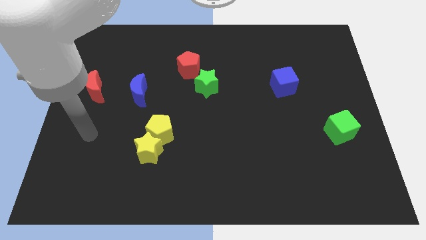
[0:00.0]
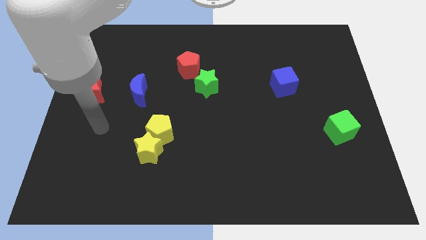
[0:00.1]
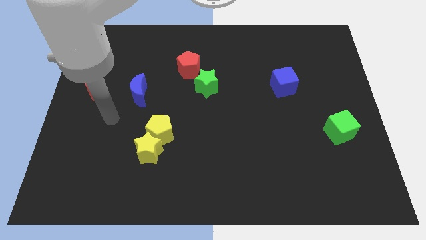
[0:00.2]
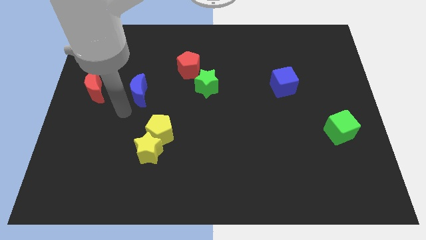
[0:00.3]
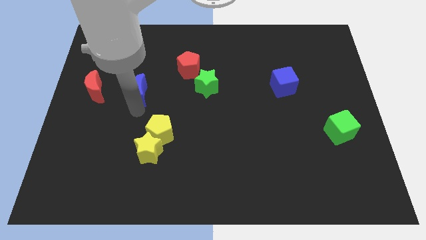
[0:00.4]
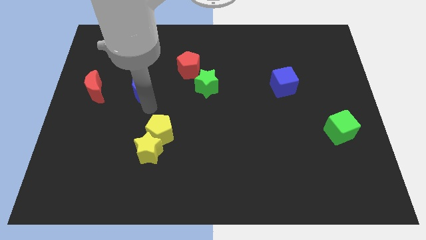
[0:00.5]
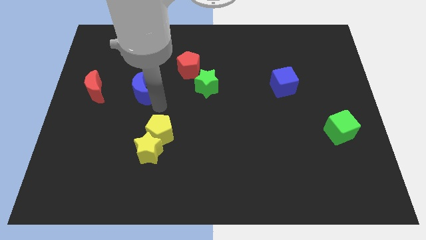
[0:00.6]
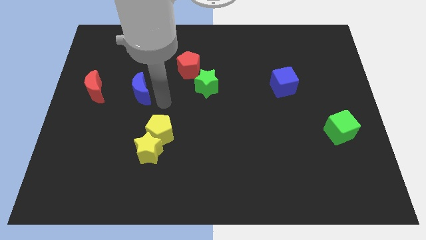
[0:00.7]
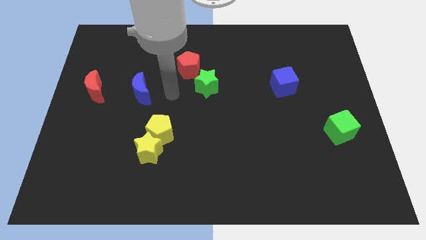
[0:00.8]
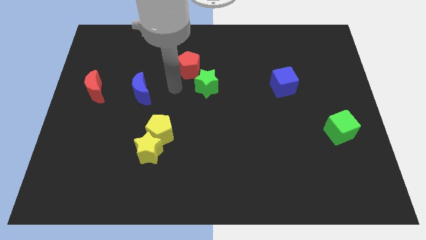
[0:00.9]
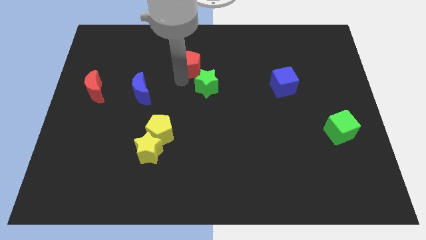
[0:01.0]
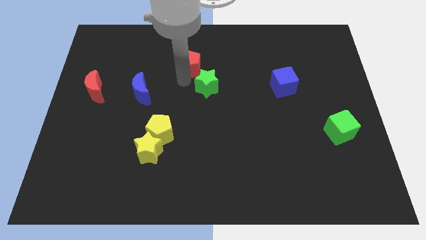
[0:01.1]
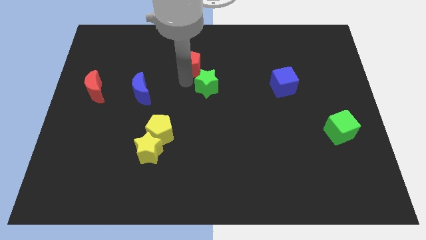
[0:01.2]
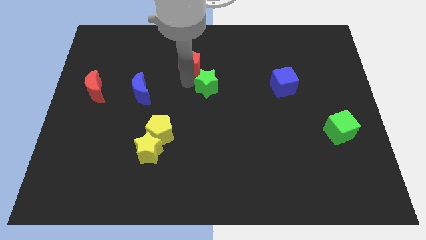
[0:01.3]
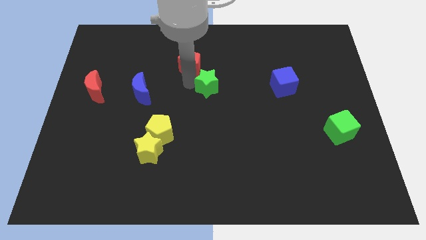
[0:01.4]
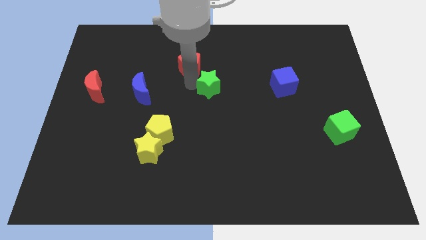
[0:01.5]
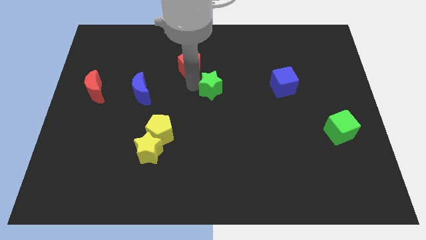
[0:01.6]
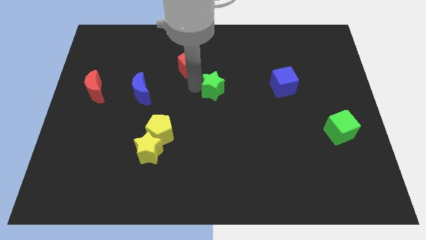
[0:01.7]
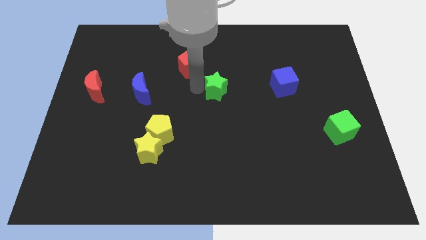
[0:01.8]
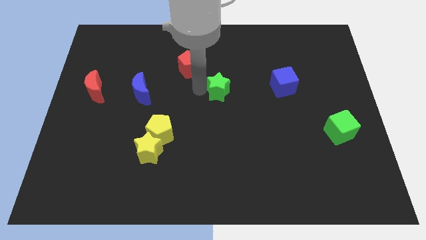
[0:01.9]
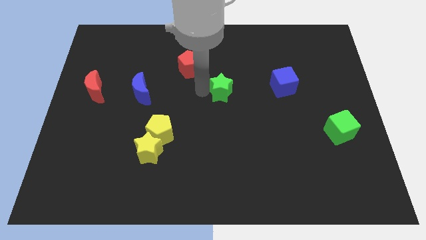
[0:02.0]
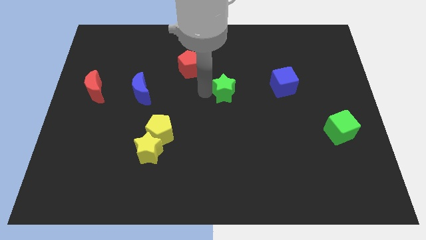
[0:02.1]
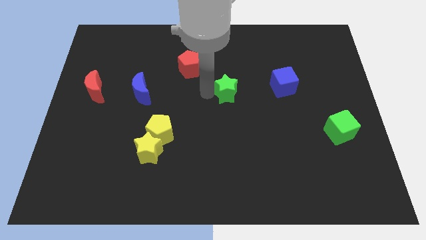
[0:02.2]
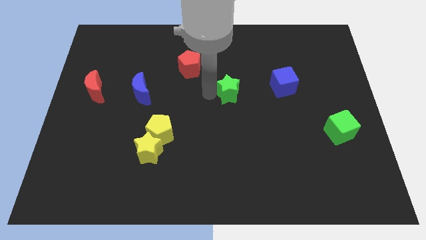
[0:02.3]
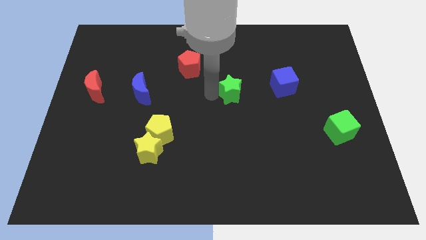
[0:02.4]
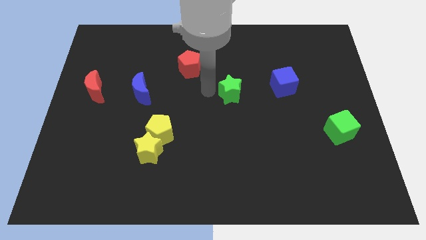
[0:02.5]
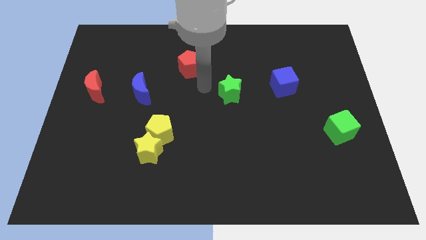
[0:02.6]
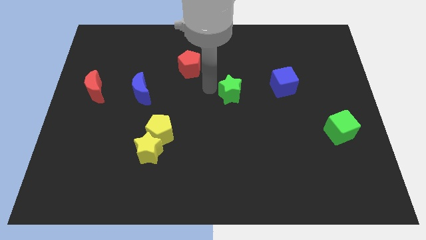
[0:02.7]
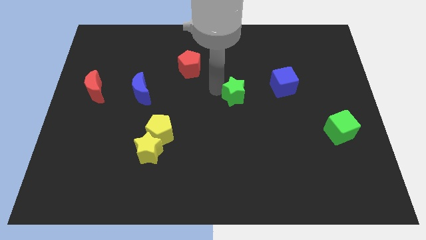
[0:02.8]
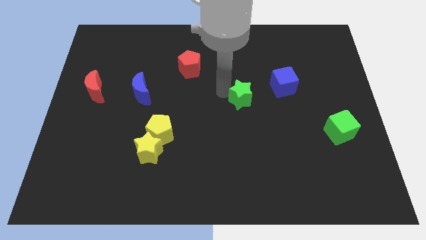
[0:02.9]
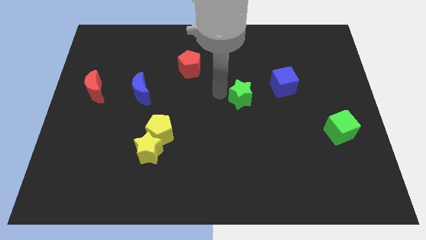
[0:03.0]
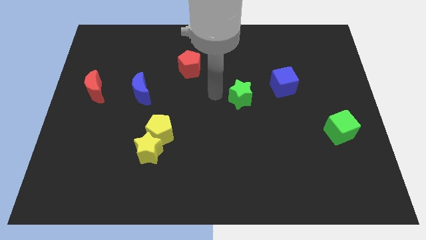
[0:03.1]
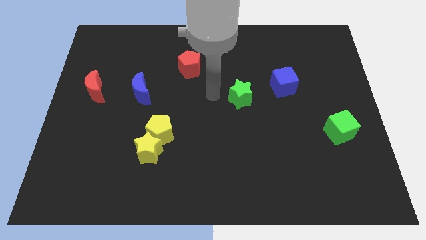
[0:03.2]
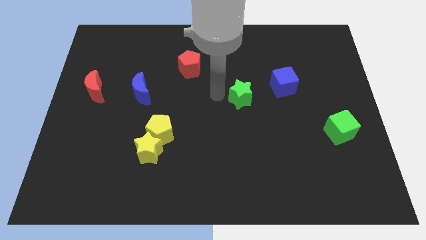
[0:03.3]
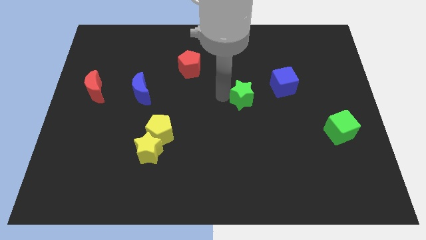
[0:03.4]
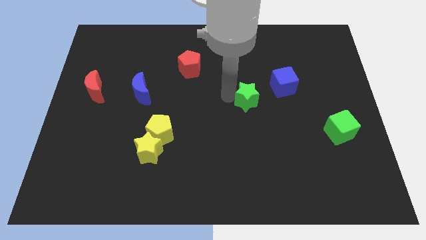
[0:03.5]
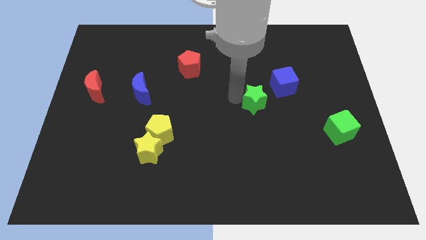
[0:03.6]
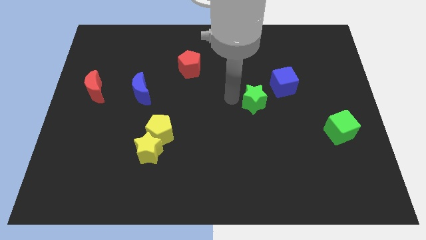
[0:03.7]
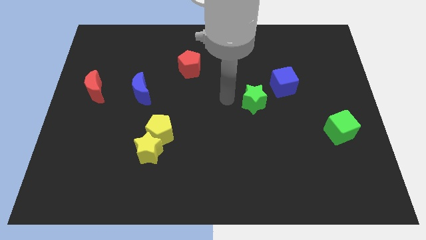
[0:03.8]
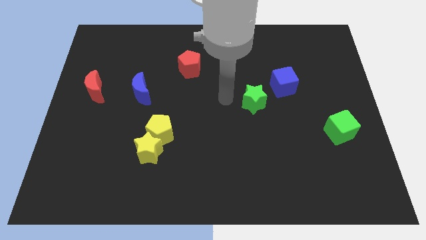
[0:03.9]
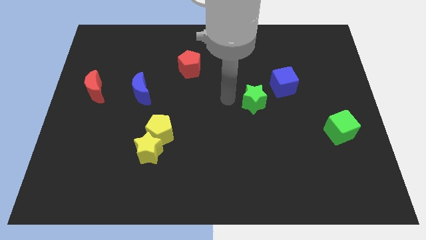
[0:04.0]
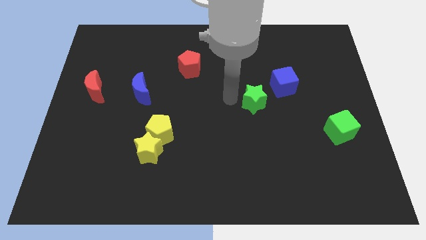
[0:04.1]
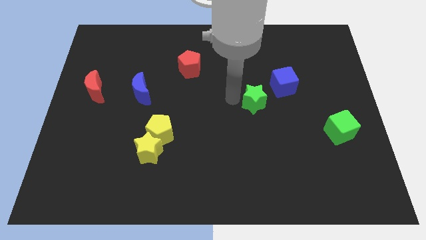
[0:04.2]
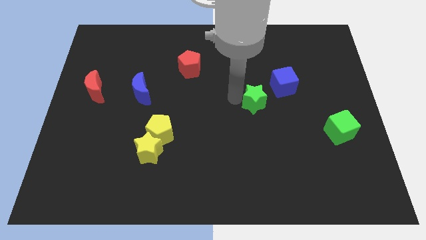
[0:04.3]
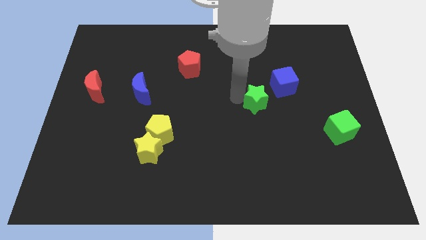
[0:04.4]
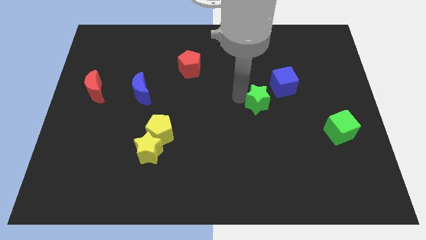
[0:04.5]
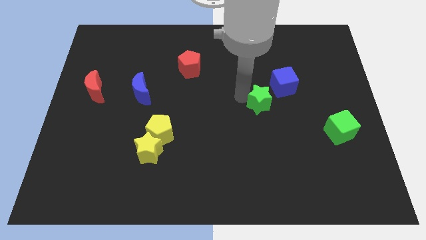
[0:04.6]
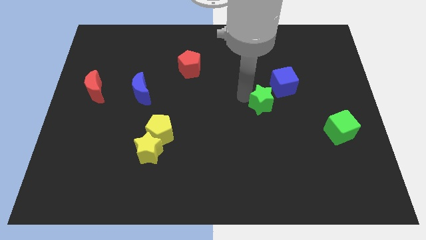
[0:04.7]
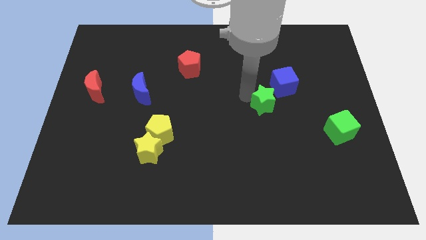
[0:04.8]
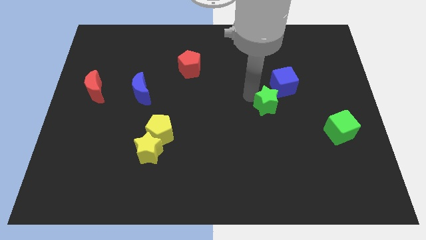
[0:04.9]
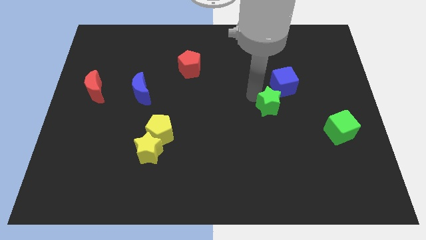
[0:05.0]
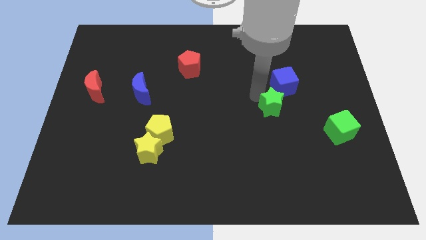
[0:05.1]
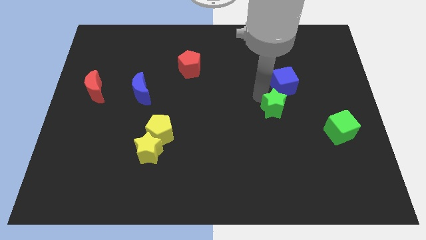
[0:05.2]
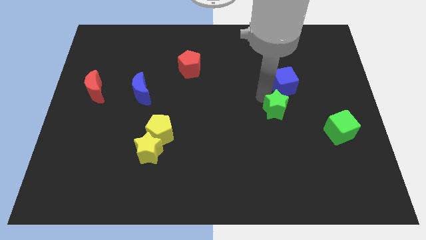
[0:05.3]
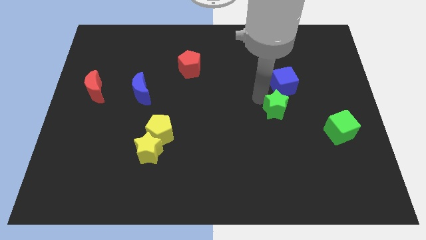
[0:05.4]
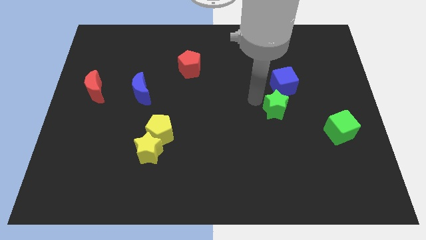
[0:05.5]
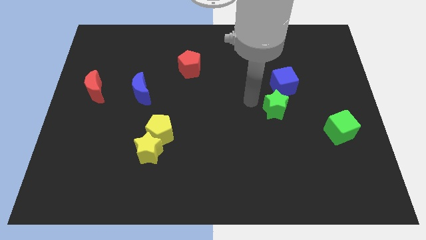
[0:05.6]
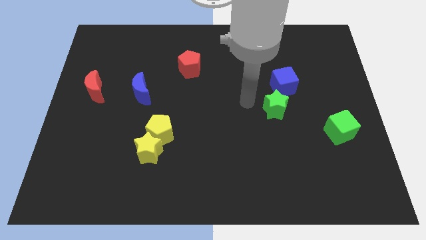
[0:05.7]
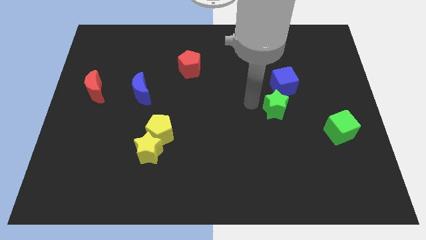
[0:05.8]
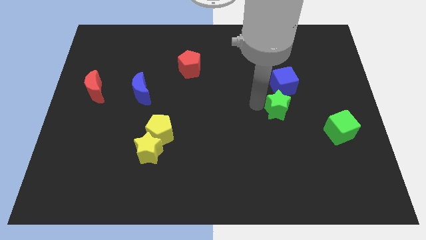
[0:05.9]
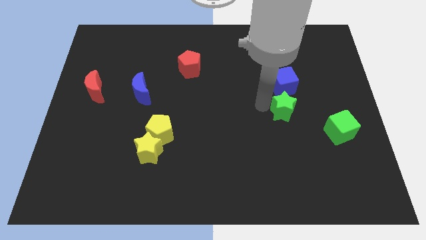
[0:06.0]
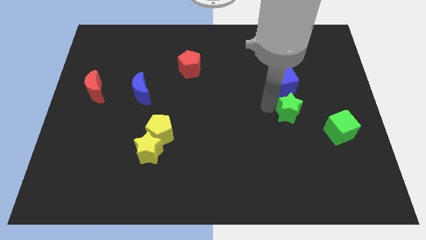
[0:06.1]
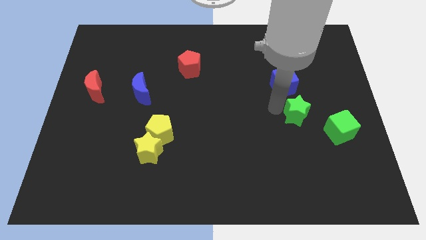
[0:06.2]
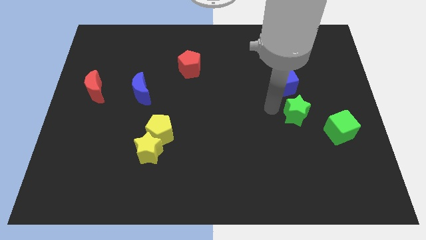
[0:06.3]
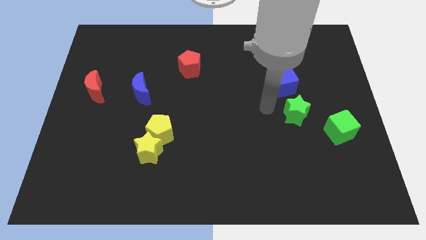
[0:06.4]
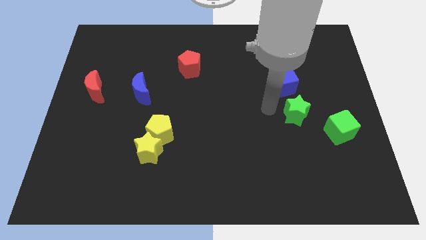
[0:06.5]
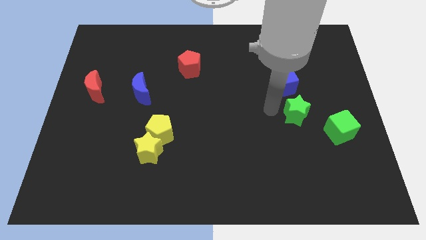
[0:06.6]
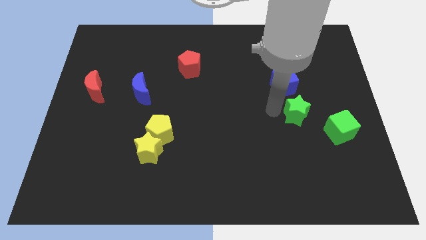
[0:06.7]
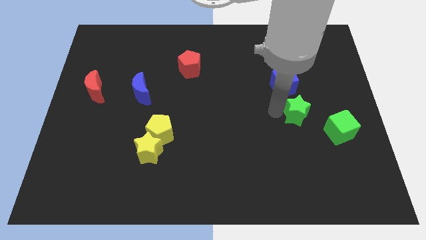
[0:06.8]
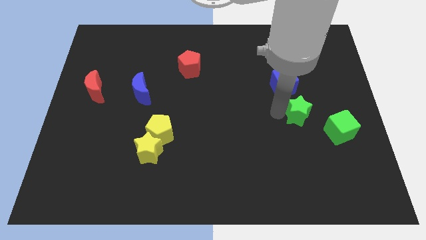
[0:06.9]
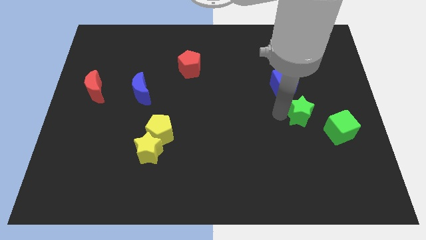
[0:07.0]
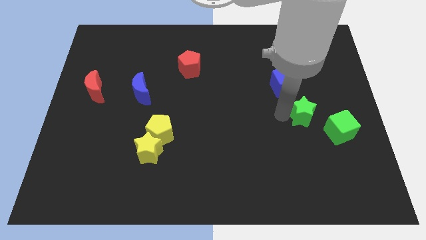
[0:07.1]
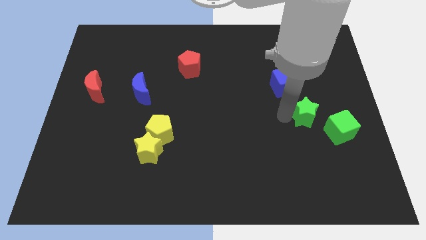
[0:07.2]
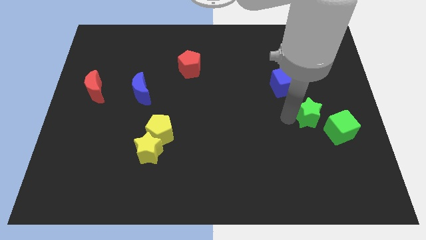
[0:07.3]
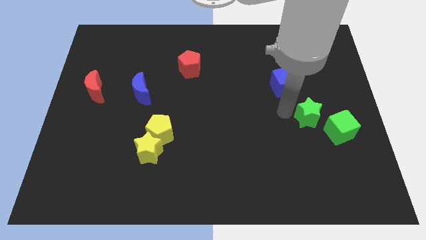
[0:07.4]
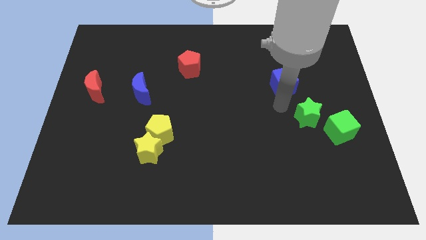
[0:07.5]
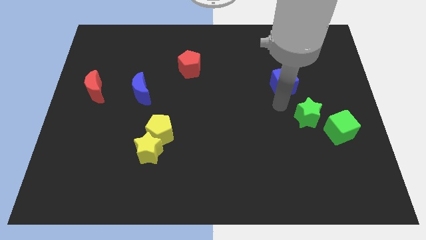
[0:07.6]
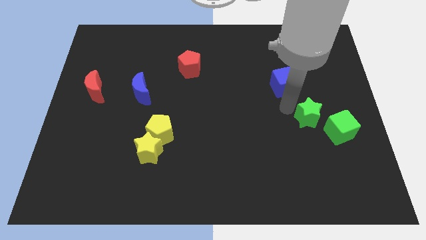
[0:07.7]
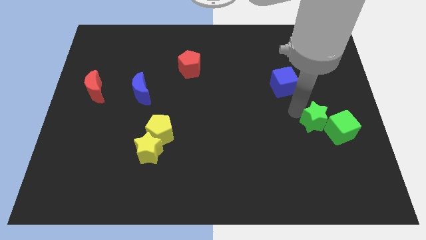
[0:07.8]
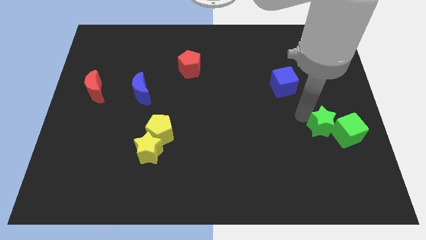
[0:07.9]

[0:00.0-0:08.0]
push the green star close to the green cube
